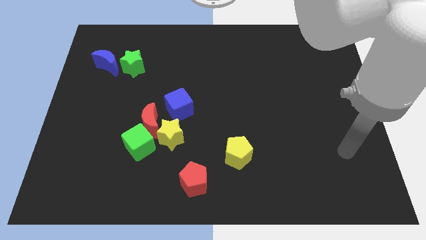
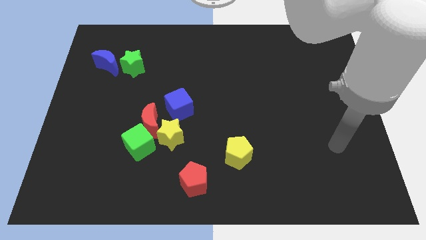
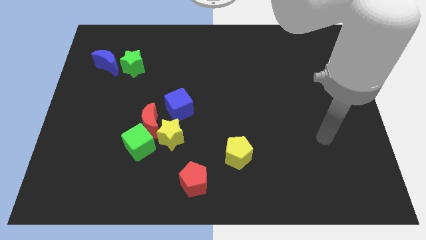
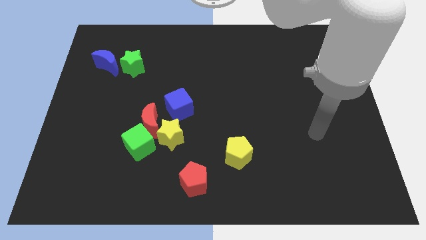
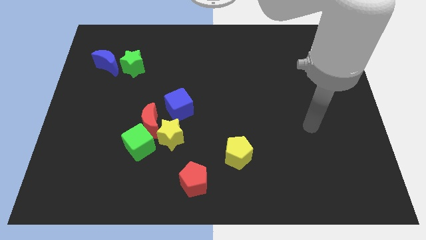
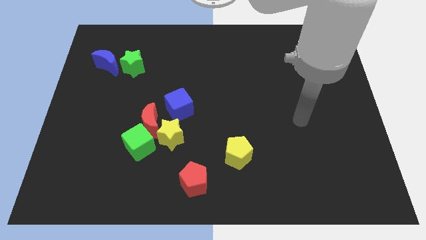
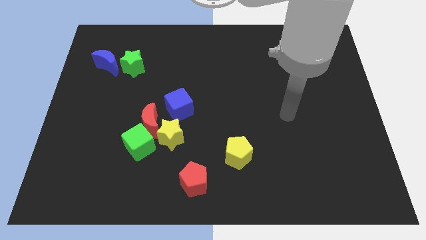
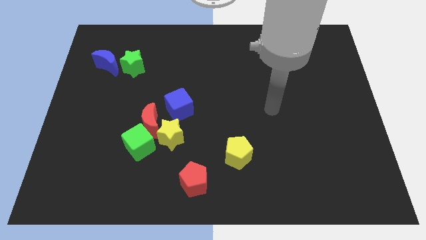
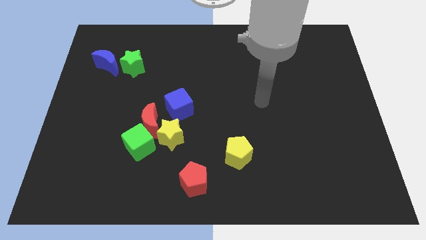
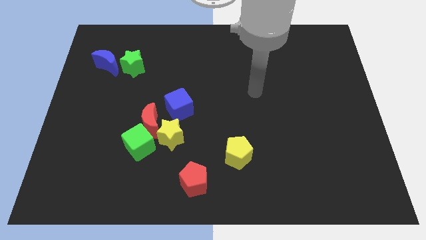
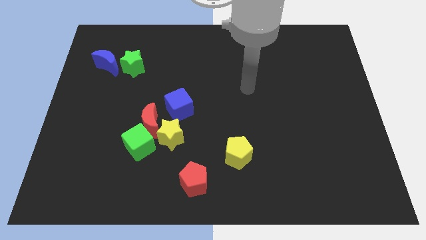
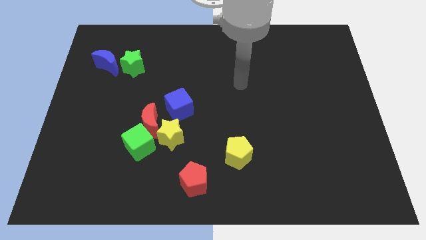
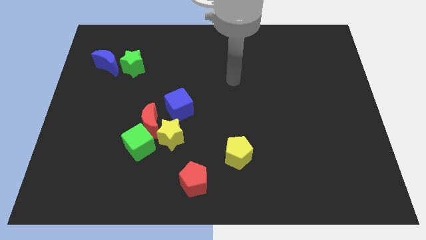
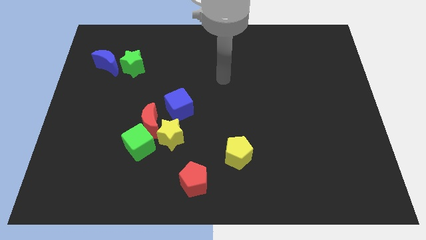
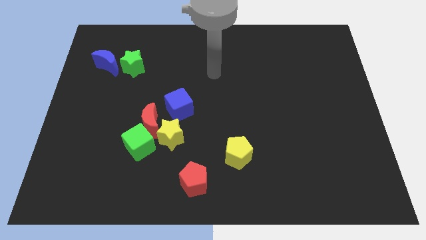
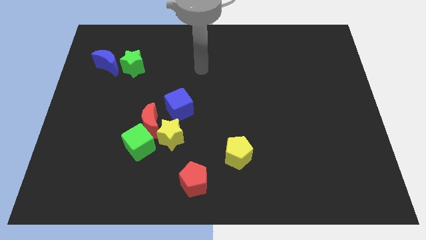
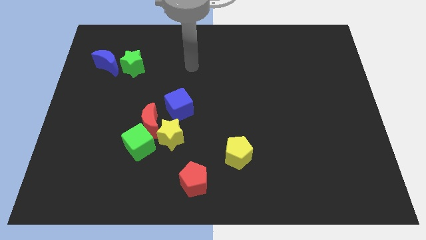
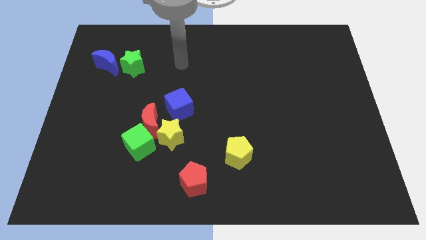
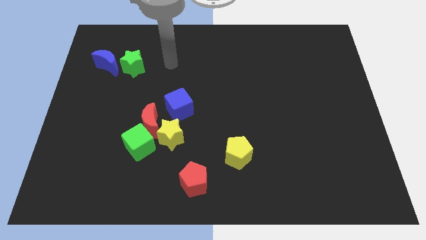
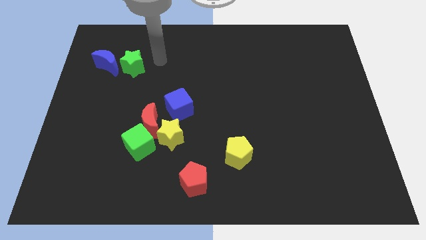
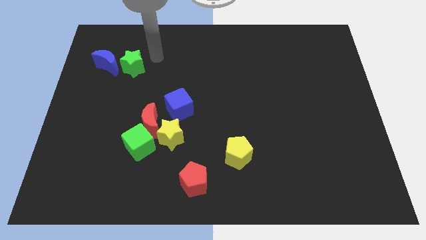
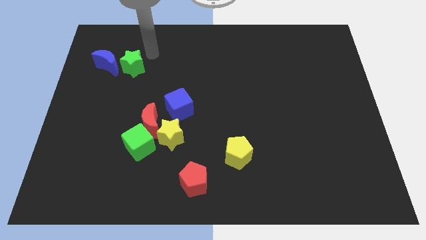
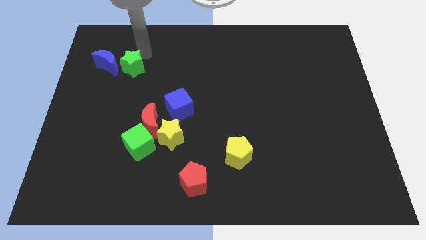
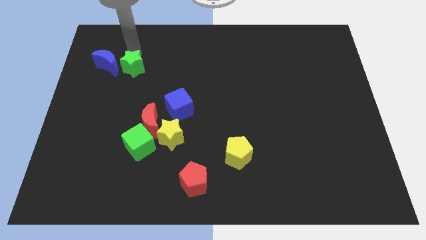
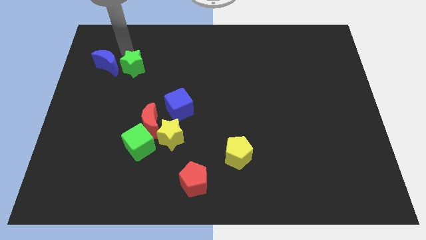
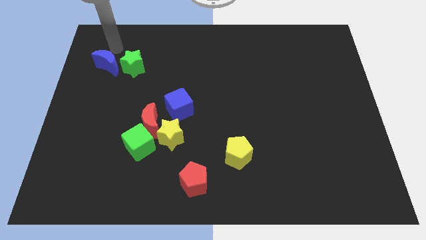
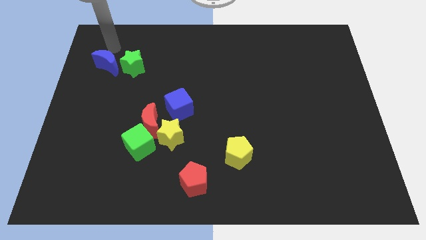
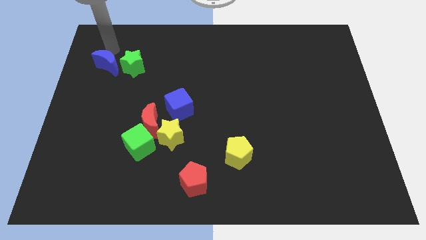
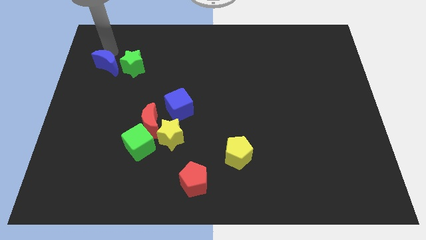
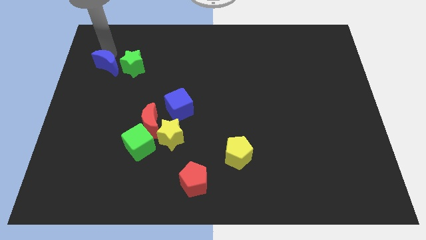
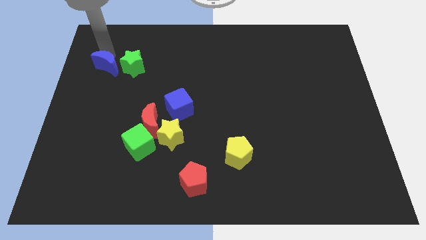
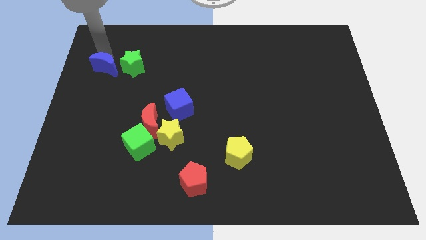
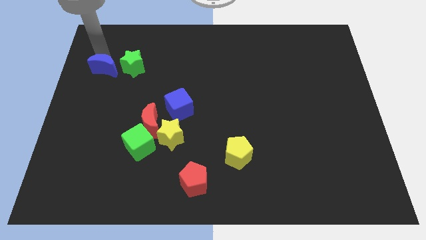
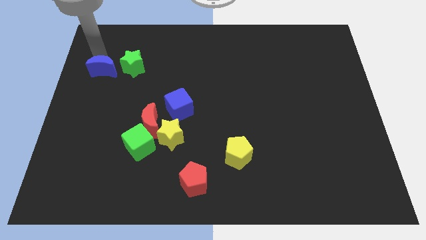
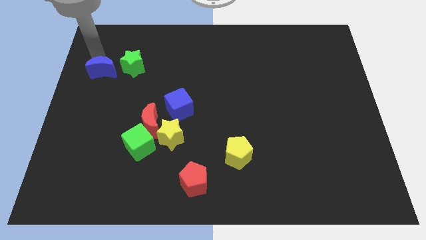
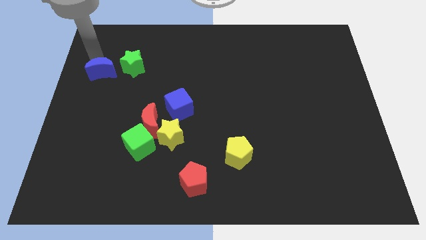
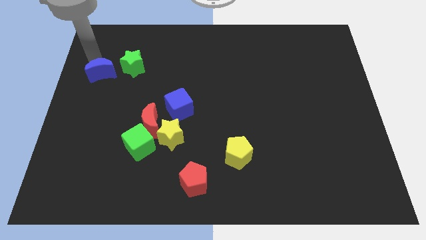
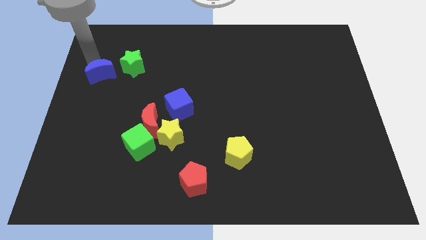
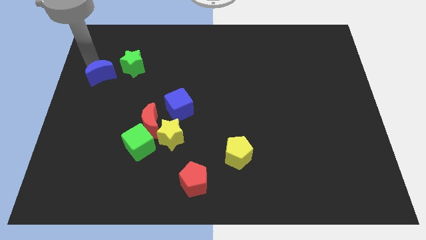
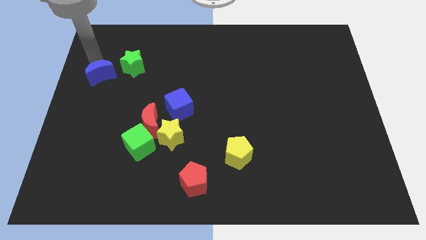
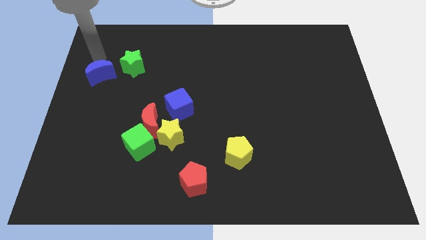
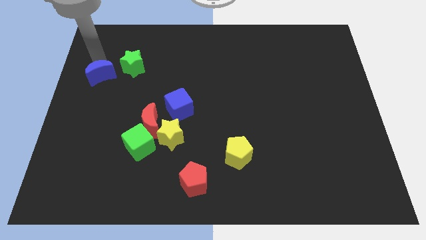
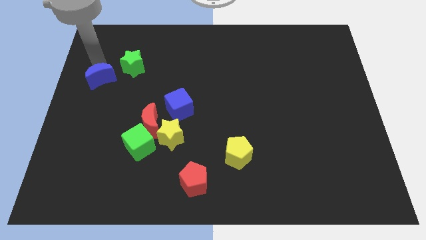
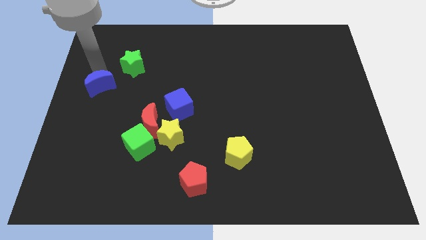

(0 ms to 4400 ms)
slide the blue moon down a little

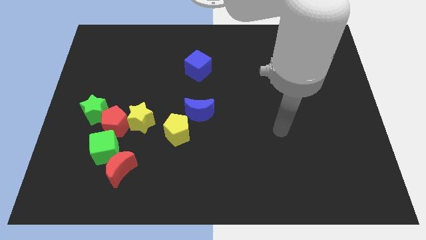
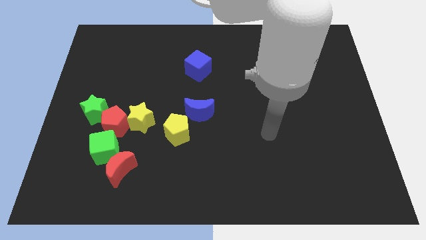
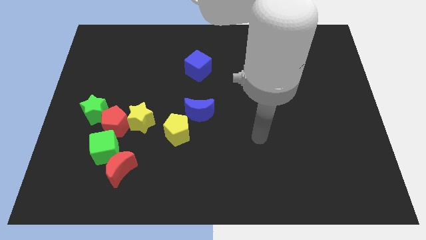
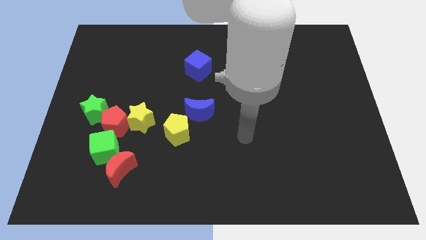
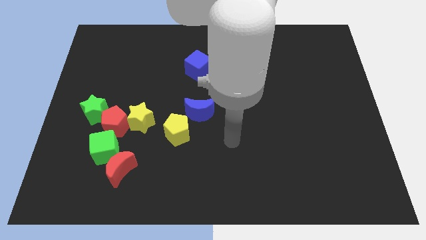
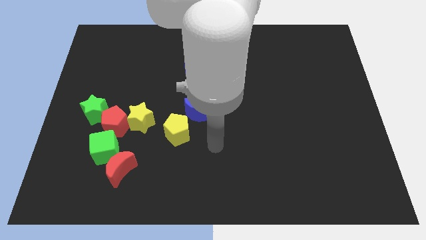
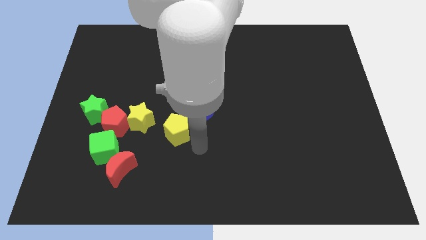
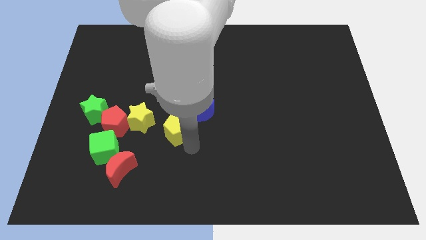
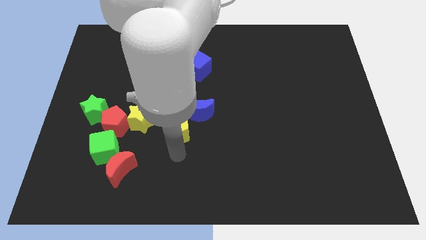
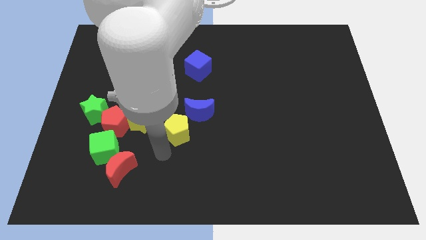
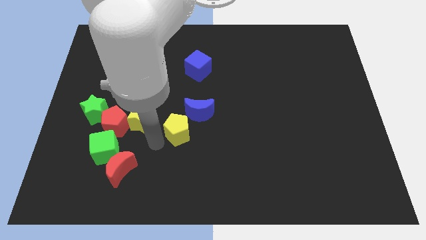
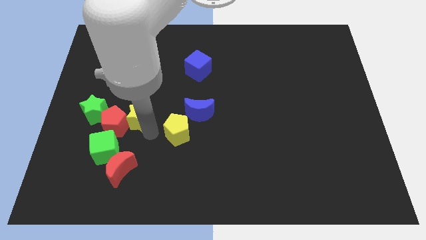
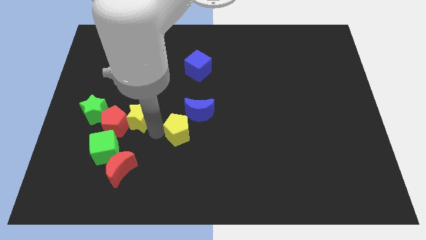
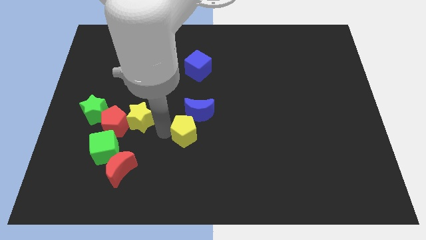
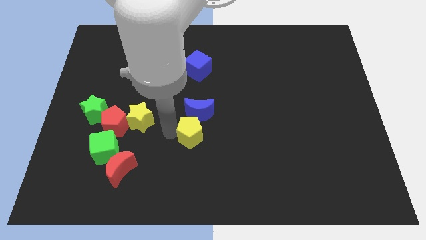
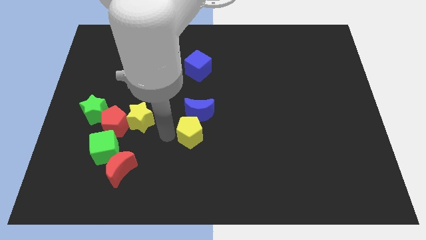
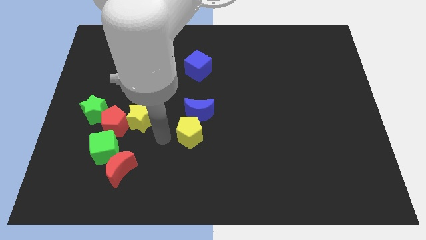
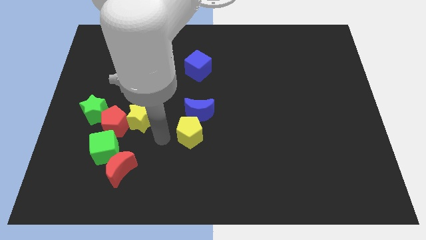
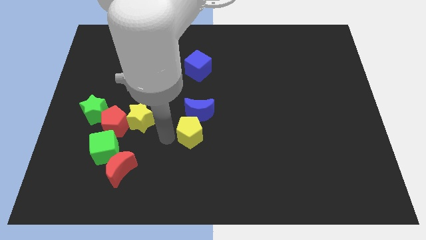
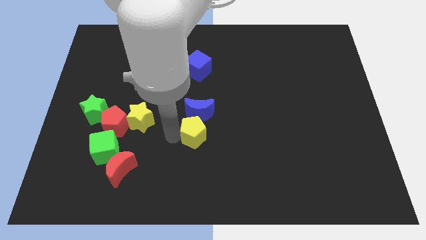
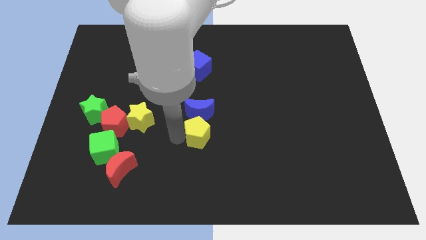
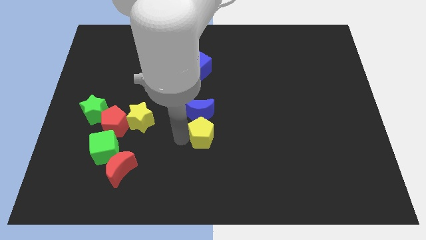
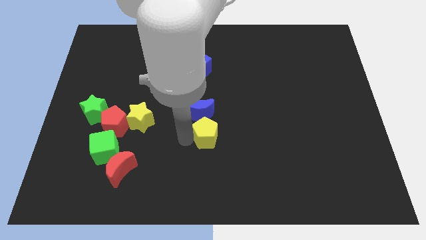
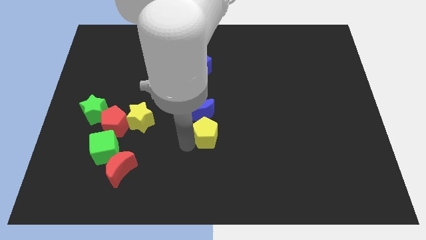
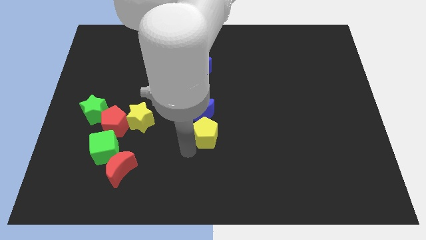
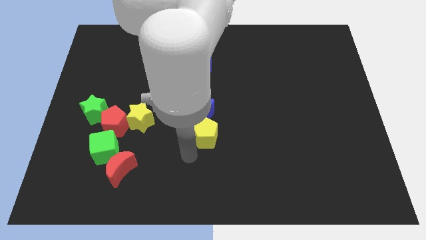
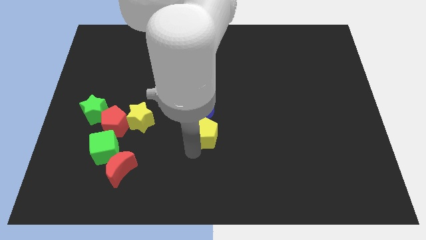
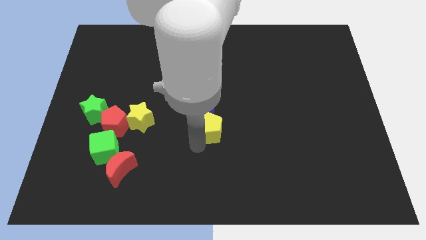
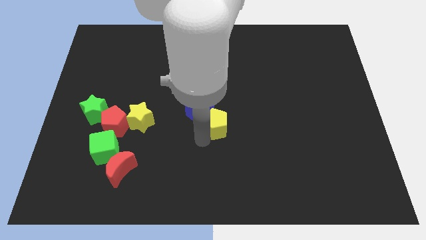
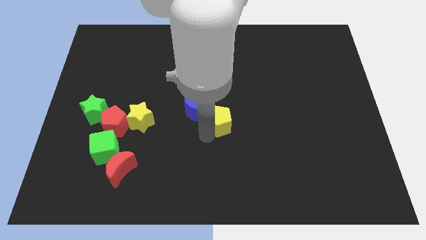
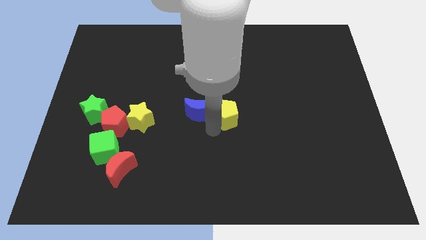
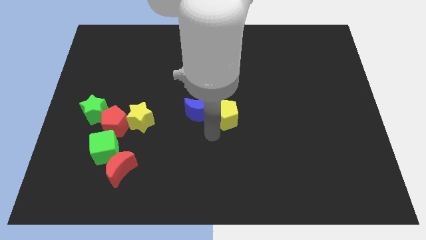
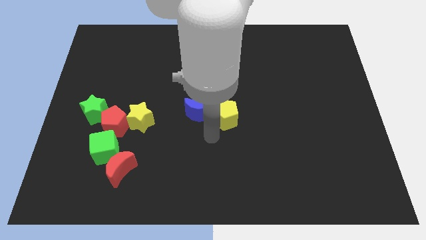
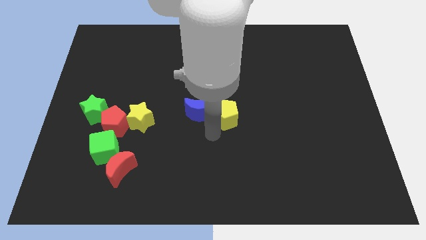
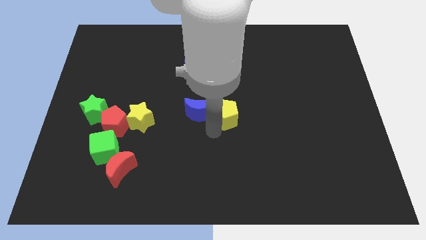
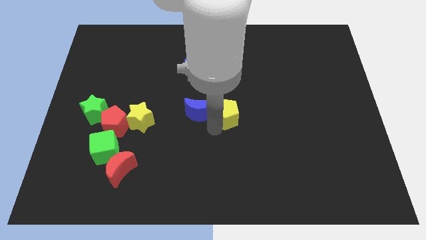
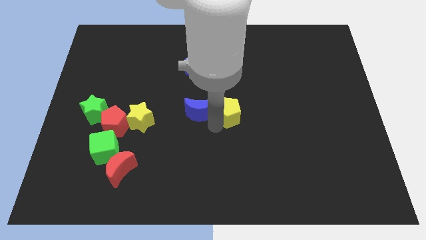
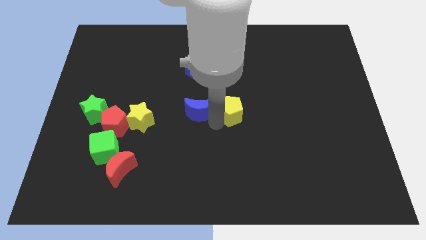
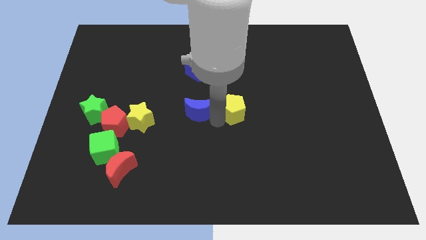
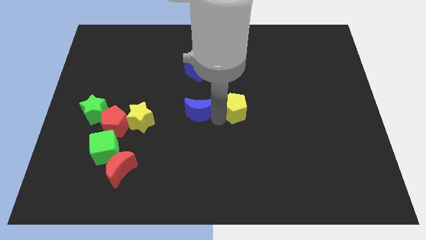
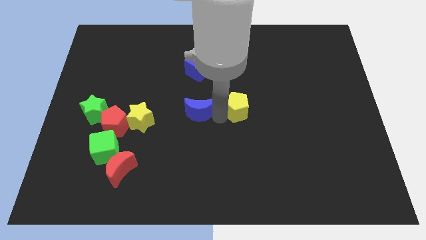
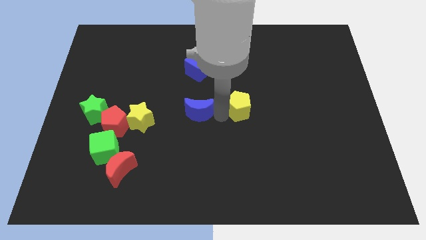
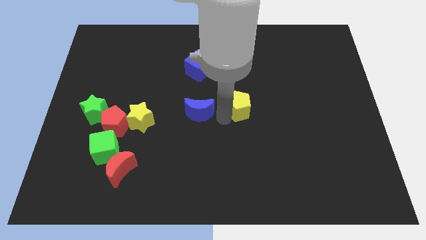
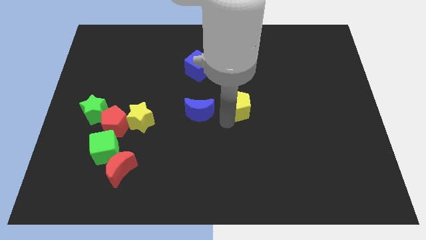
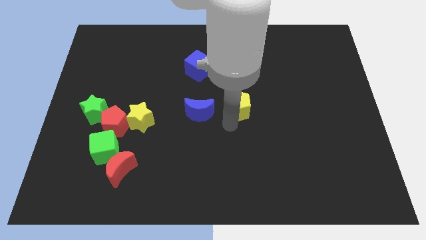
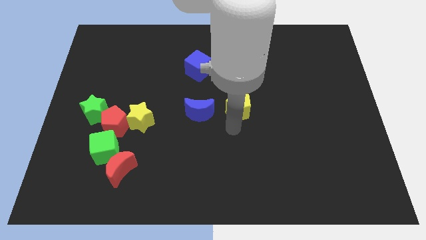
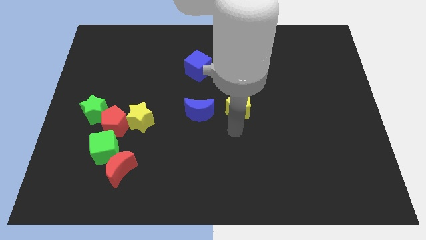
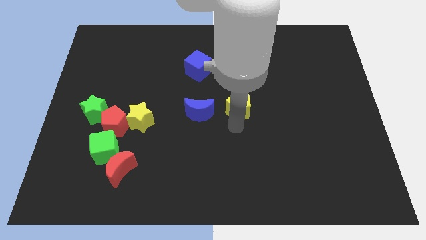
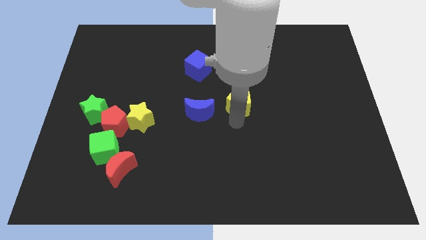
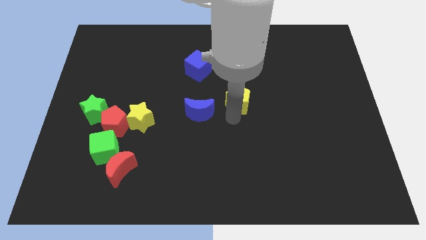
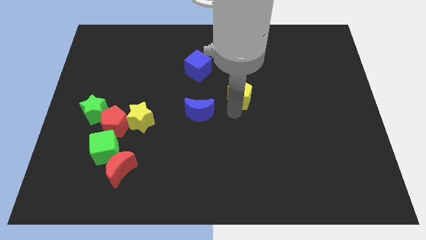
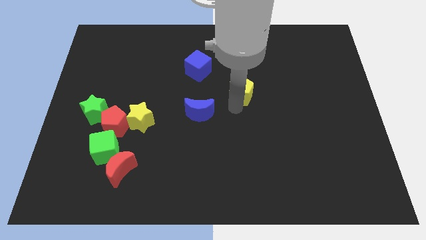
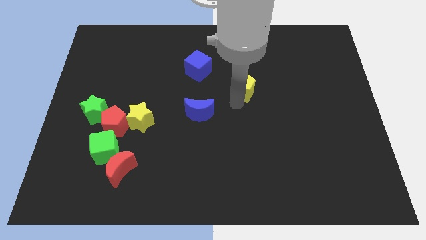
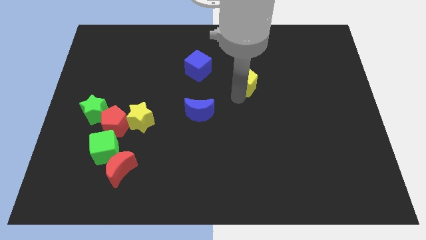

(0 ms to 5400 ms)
push the yellow pentagon up and right
